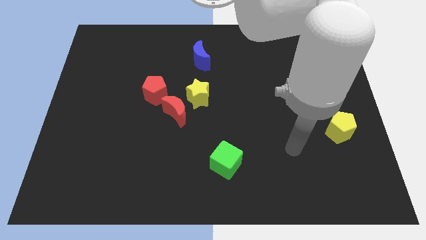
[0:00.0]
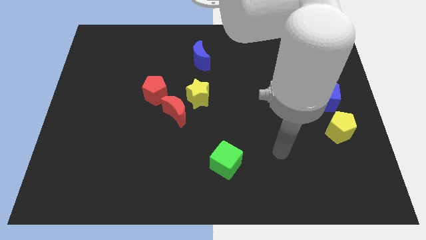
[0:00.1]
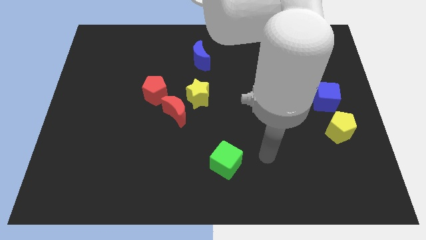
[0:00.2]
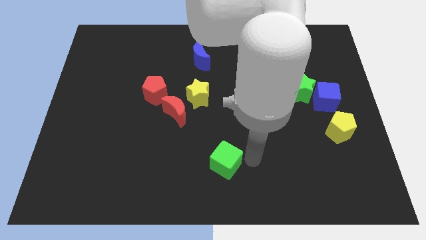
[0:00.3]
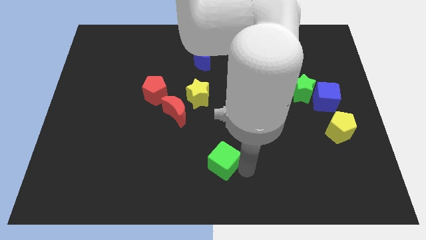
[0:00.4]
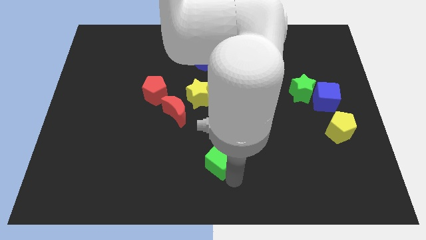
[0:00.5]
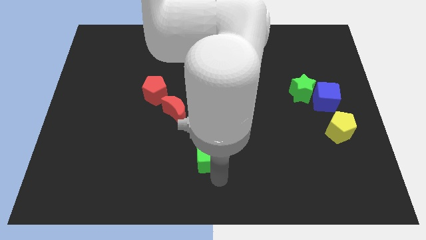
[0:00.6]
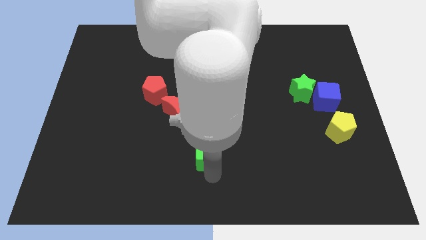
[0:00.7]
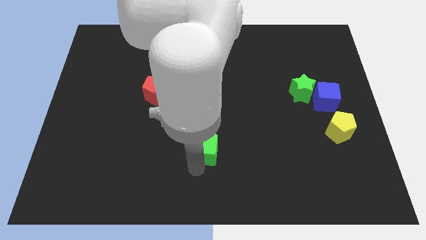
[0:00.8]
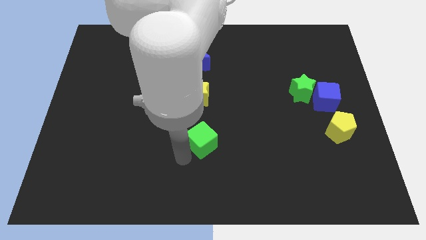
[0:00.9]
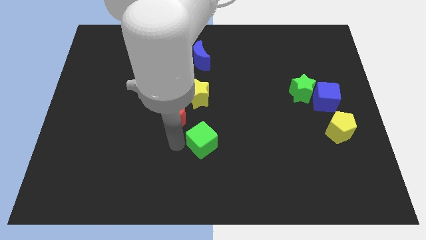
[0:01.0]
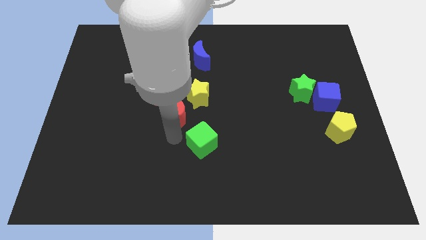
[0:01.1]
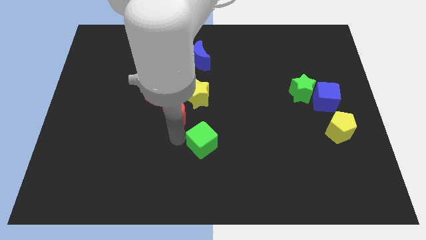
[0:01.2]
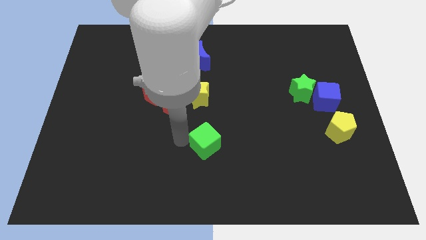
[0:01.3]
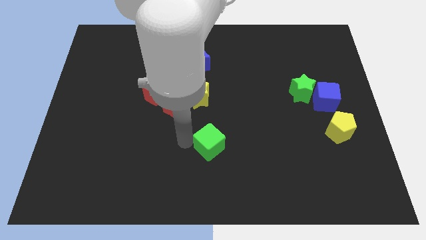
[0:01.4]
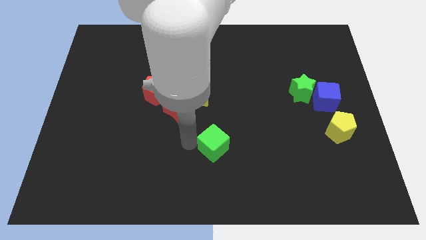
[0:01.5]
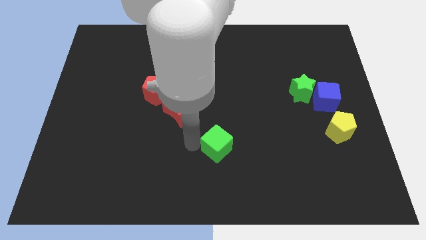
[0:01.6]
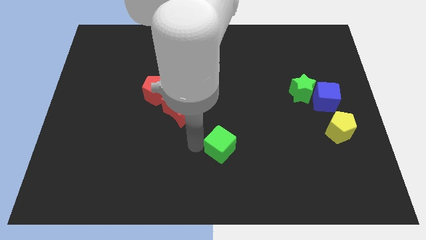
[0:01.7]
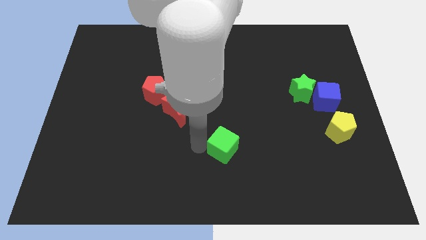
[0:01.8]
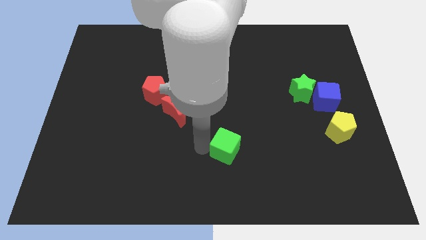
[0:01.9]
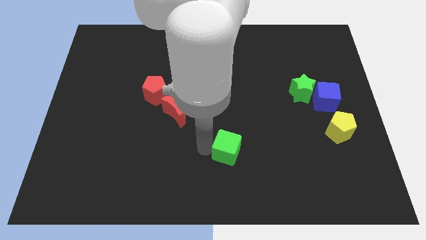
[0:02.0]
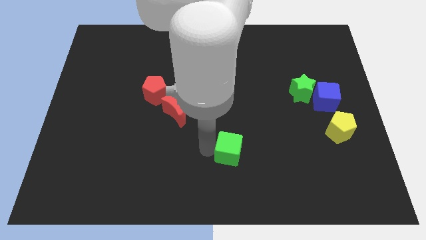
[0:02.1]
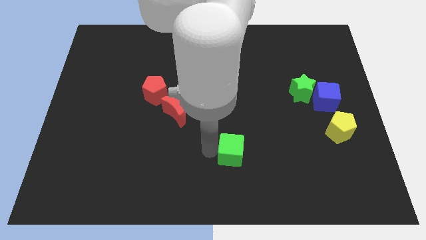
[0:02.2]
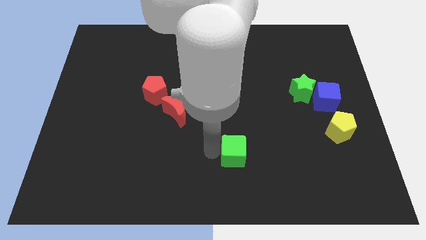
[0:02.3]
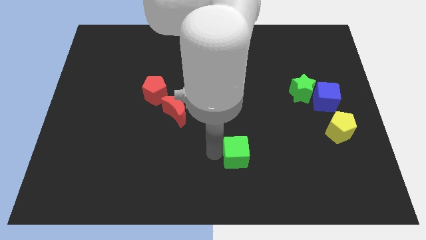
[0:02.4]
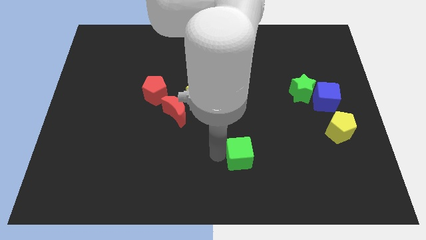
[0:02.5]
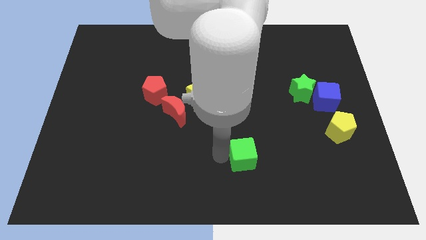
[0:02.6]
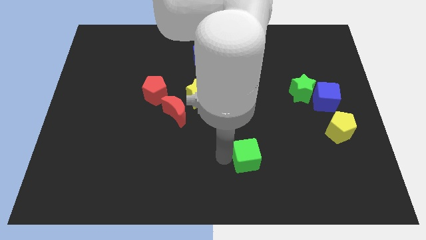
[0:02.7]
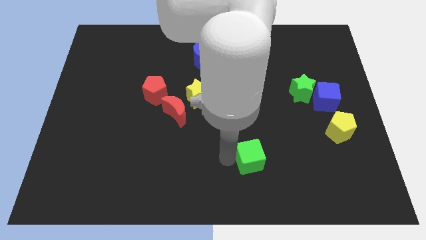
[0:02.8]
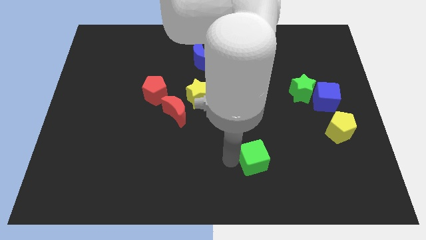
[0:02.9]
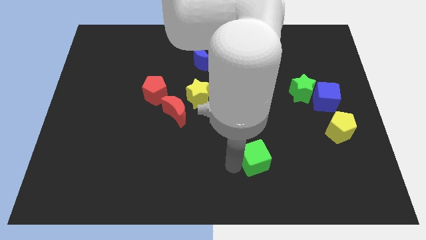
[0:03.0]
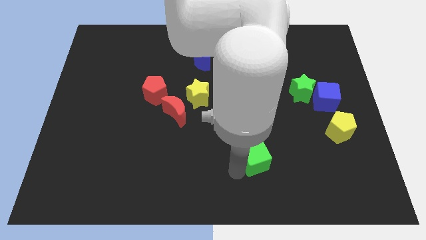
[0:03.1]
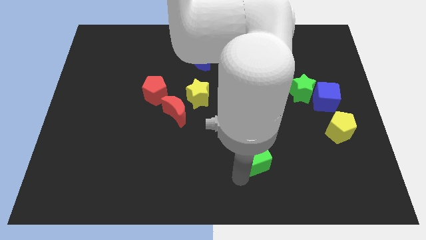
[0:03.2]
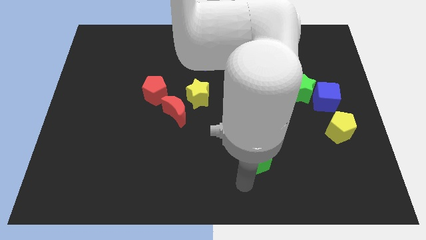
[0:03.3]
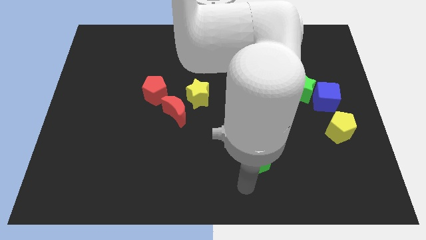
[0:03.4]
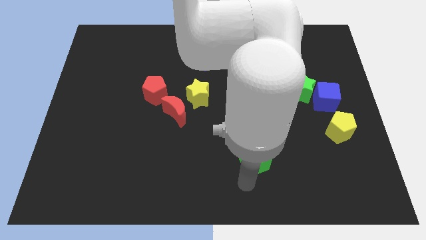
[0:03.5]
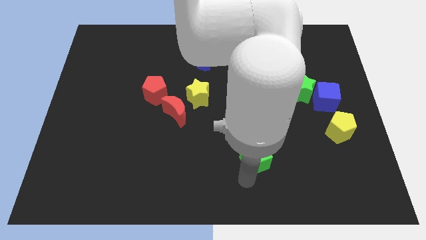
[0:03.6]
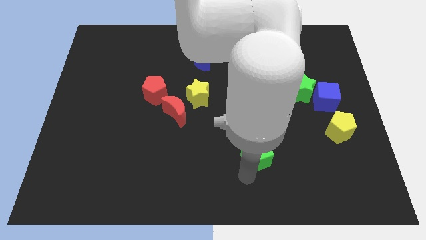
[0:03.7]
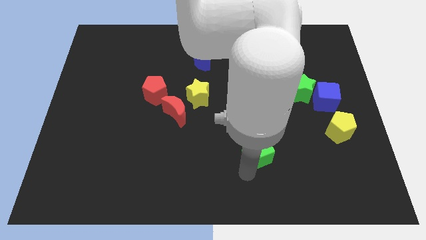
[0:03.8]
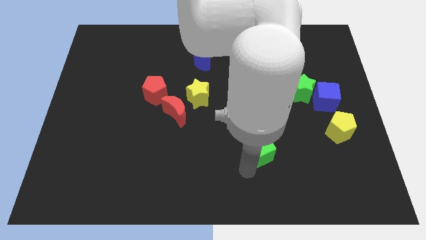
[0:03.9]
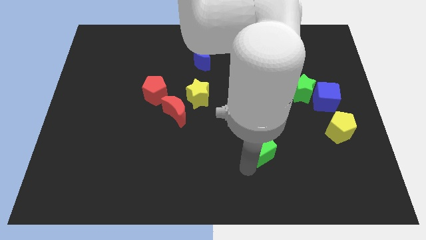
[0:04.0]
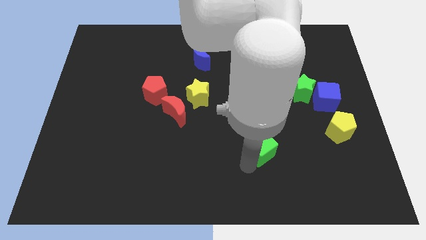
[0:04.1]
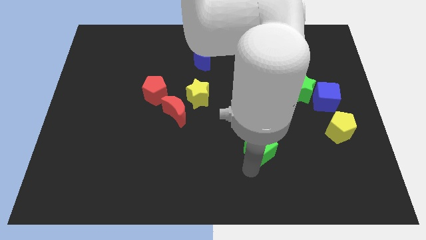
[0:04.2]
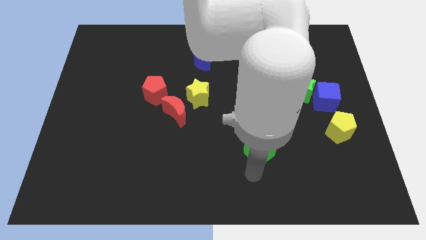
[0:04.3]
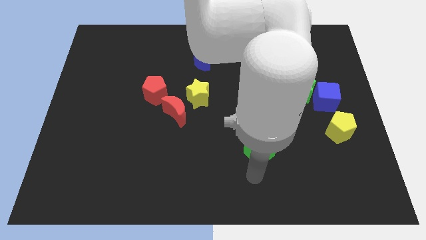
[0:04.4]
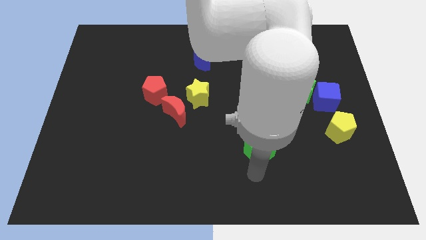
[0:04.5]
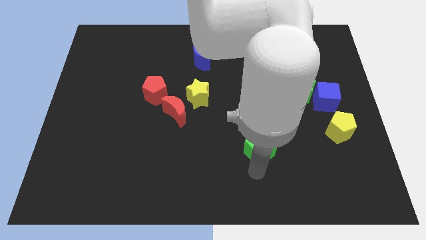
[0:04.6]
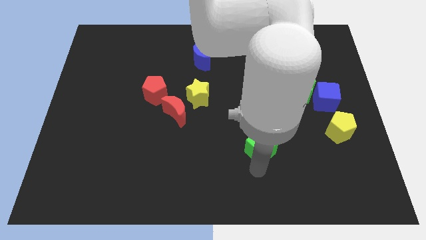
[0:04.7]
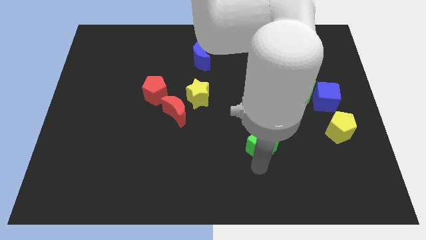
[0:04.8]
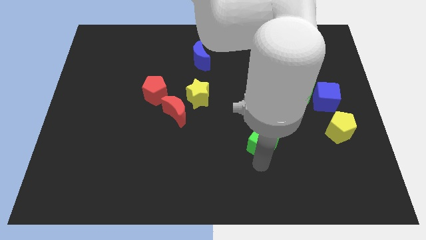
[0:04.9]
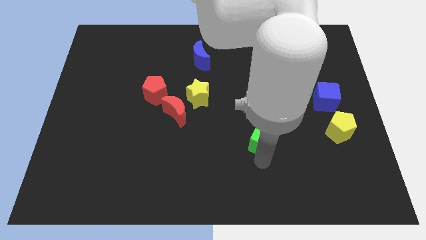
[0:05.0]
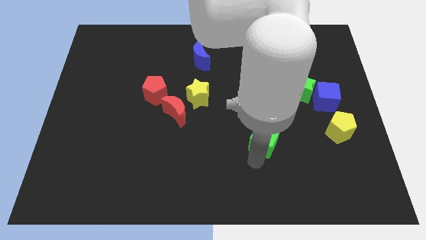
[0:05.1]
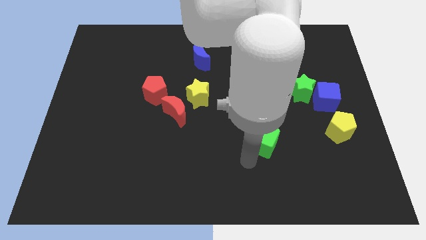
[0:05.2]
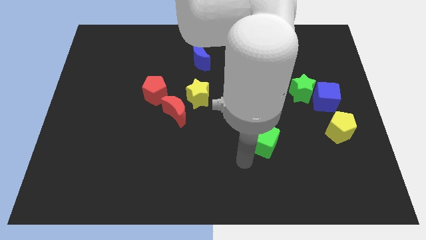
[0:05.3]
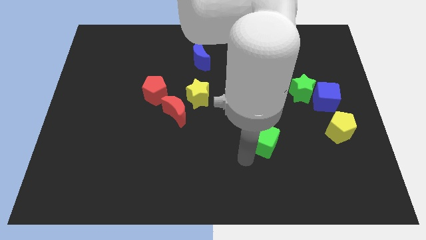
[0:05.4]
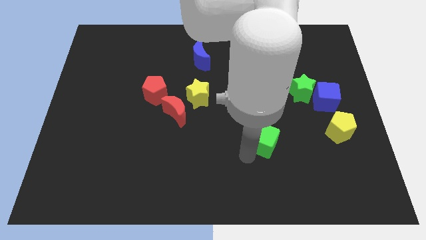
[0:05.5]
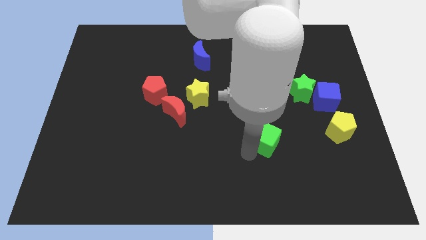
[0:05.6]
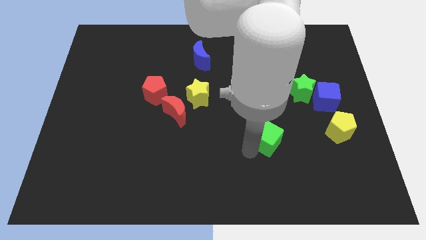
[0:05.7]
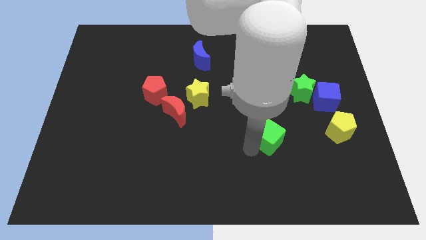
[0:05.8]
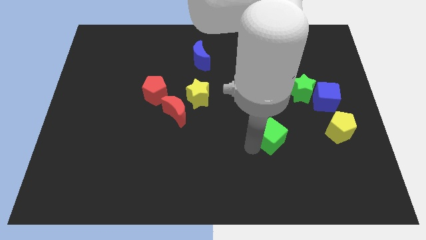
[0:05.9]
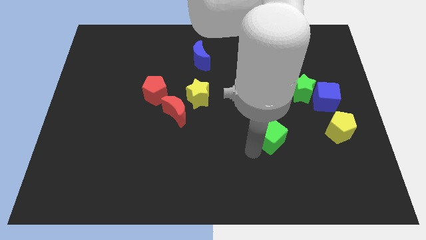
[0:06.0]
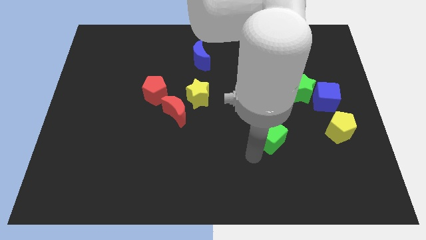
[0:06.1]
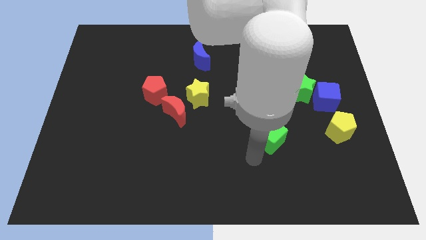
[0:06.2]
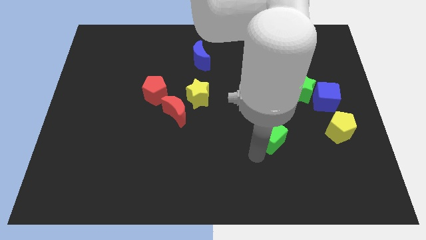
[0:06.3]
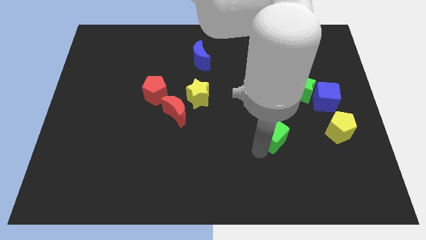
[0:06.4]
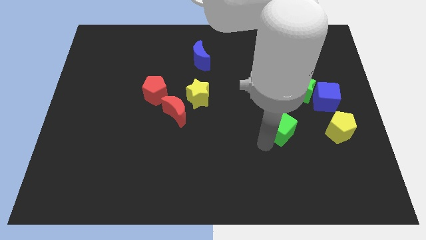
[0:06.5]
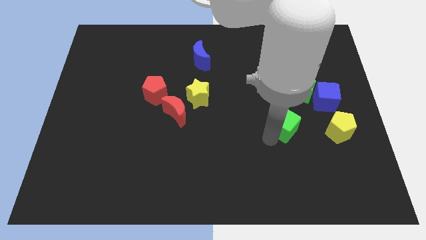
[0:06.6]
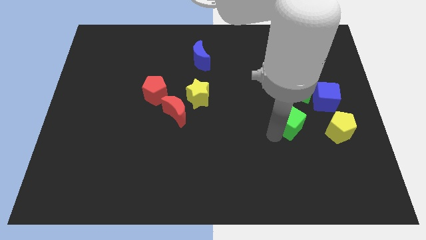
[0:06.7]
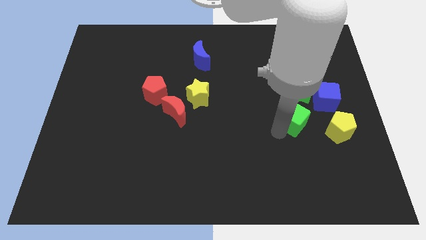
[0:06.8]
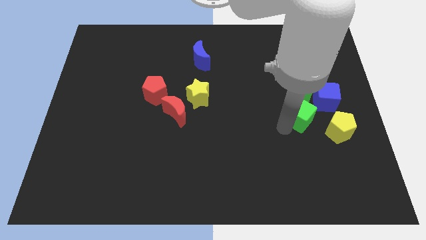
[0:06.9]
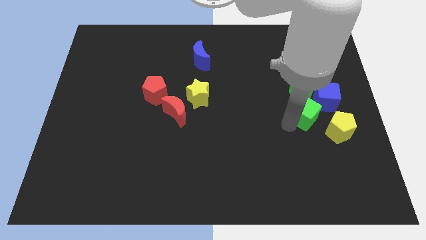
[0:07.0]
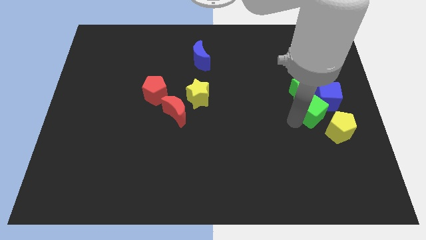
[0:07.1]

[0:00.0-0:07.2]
move the green cube close to the blue cube
